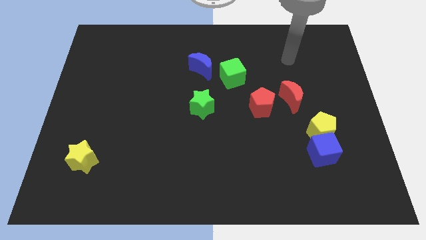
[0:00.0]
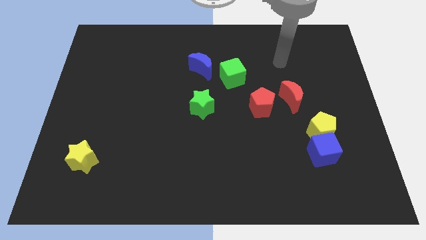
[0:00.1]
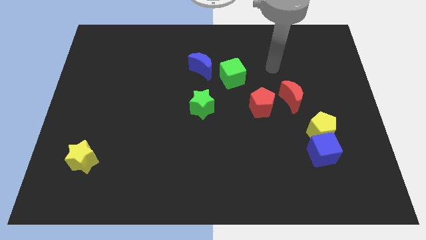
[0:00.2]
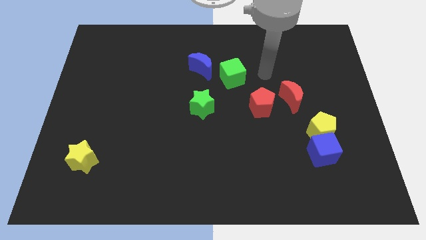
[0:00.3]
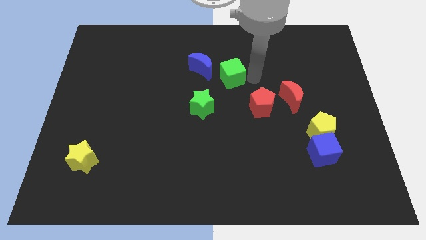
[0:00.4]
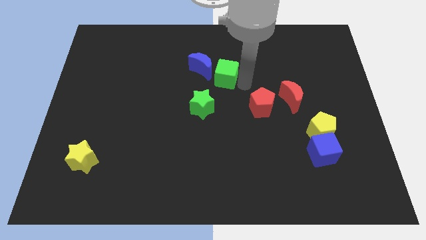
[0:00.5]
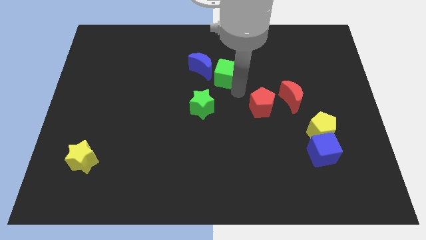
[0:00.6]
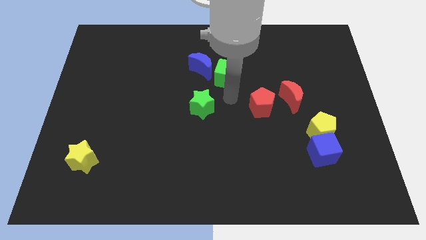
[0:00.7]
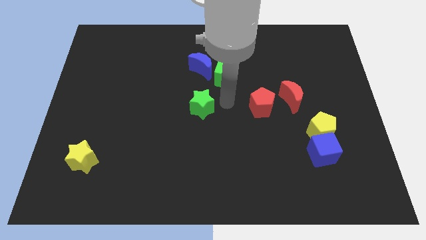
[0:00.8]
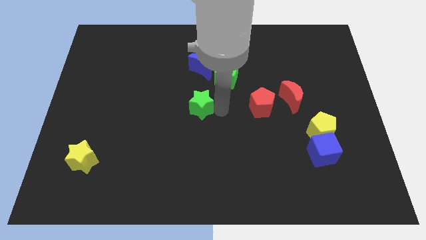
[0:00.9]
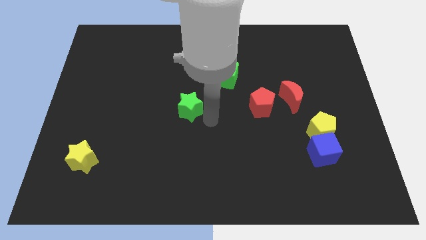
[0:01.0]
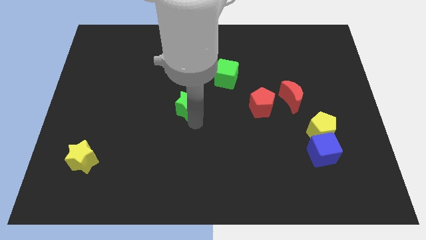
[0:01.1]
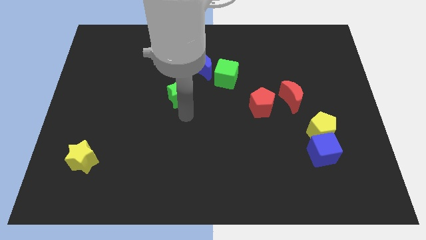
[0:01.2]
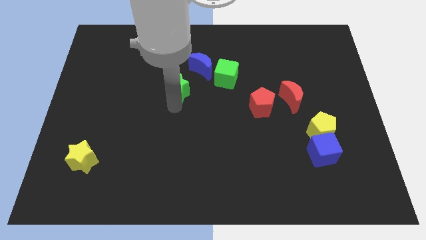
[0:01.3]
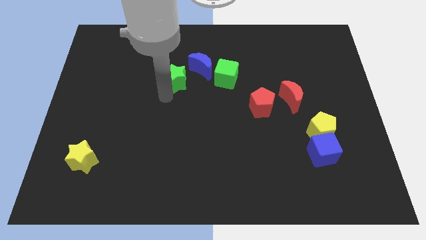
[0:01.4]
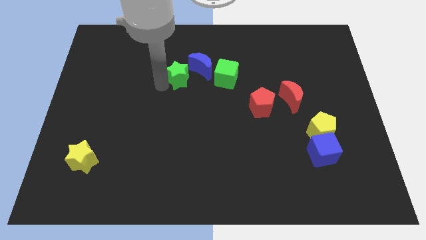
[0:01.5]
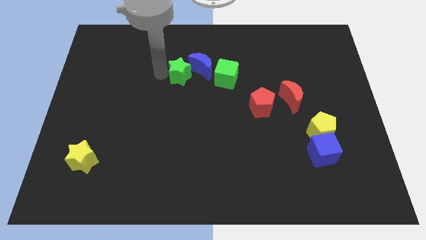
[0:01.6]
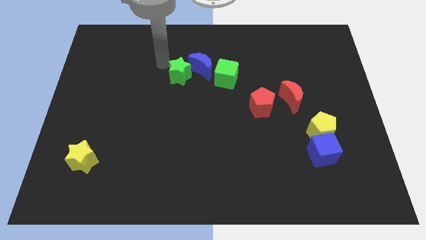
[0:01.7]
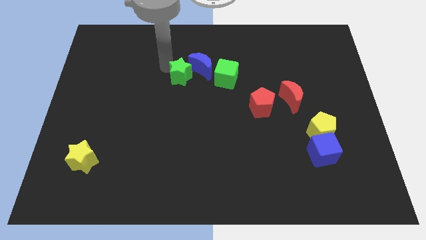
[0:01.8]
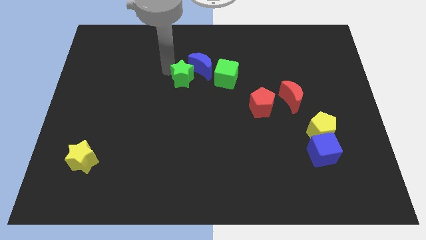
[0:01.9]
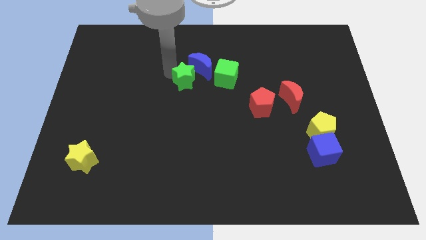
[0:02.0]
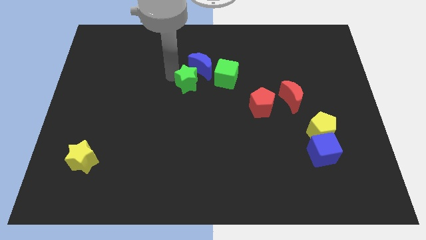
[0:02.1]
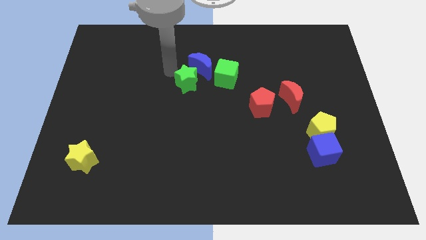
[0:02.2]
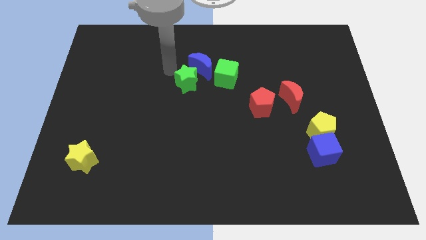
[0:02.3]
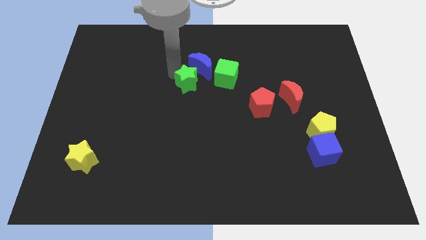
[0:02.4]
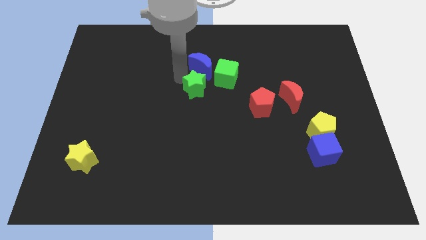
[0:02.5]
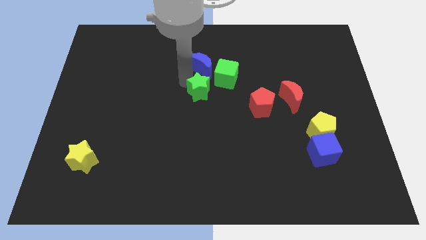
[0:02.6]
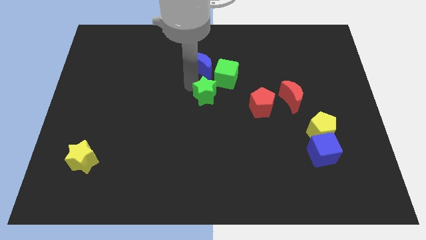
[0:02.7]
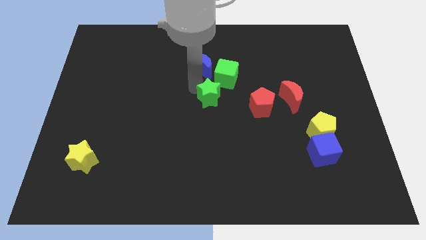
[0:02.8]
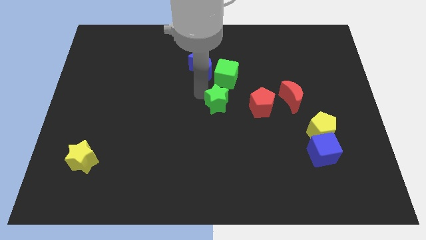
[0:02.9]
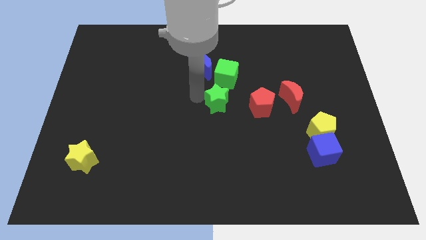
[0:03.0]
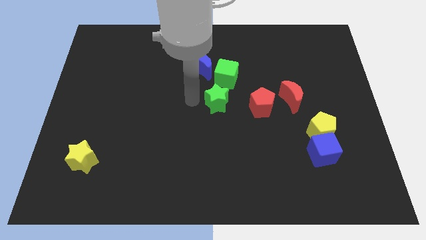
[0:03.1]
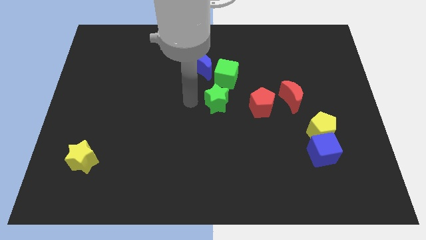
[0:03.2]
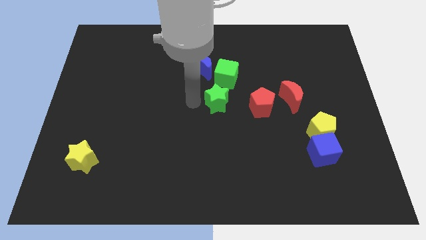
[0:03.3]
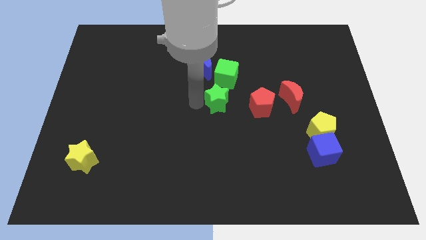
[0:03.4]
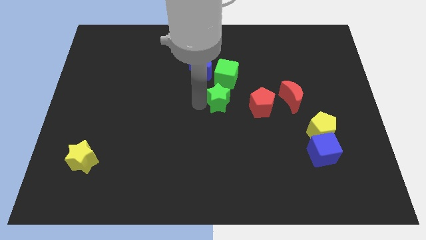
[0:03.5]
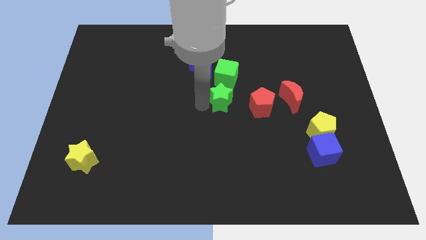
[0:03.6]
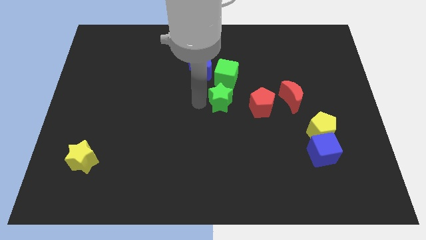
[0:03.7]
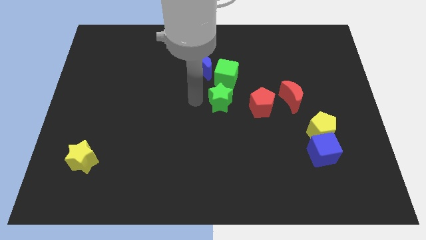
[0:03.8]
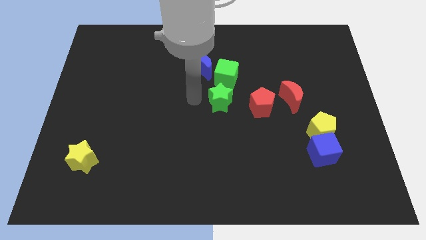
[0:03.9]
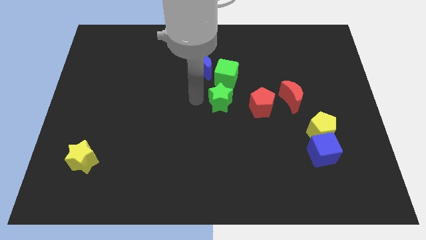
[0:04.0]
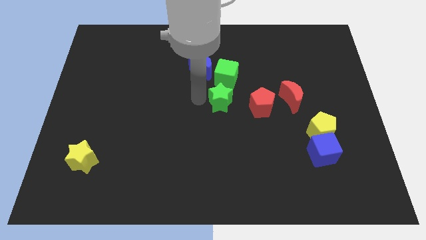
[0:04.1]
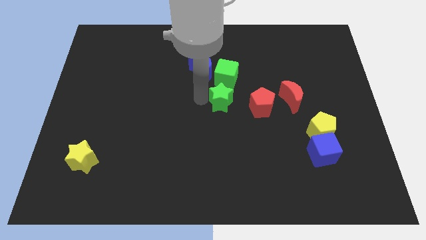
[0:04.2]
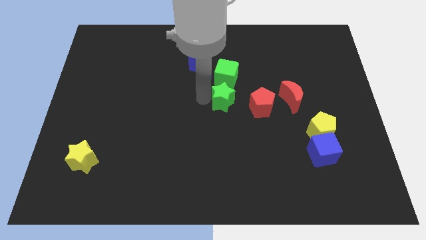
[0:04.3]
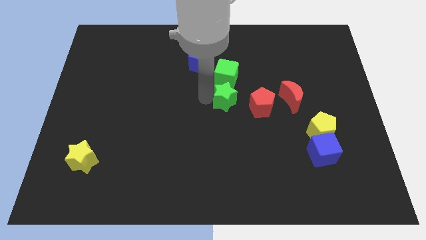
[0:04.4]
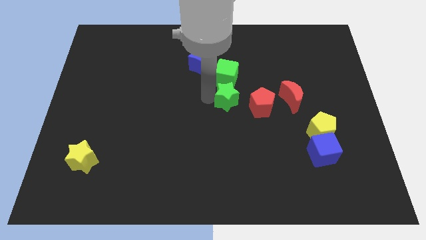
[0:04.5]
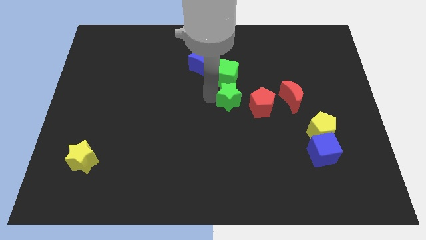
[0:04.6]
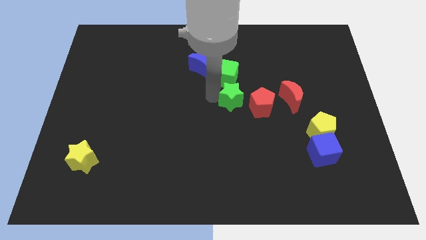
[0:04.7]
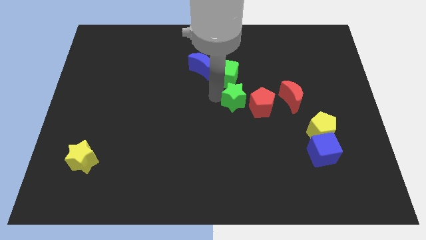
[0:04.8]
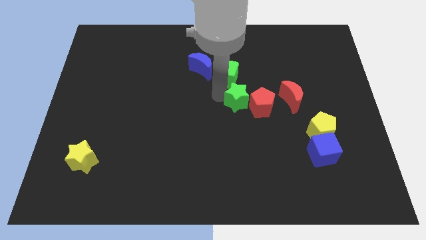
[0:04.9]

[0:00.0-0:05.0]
move the green star next to the red pentagon

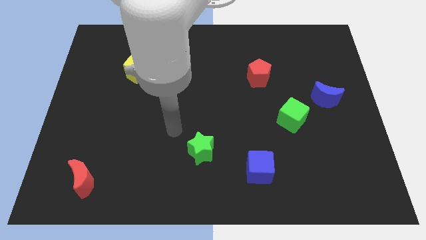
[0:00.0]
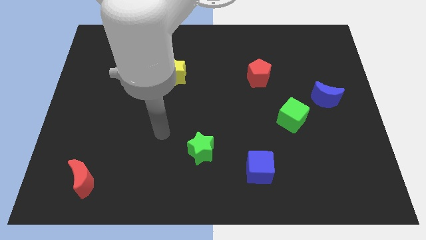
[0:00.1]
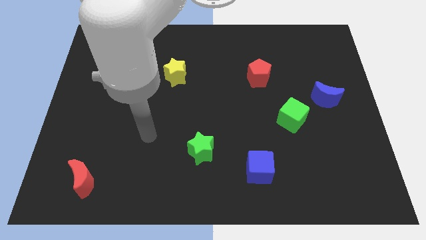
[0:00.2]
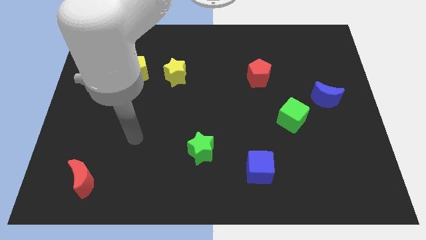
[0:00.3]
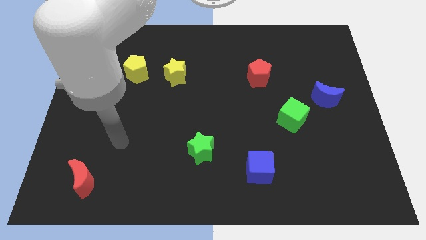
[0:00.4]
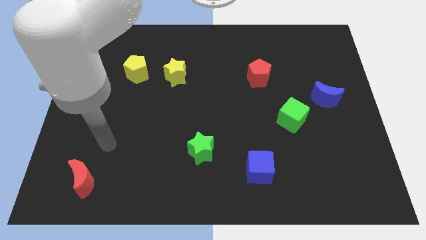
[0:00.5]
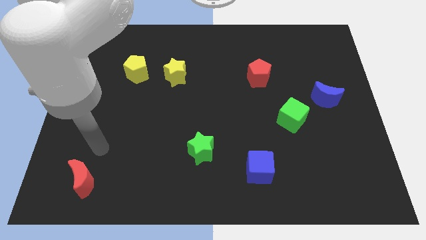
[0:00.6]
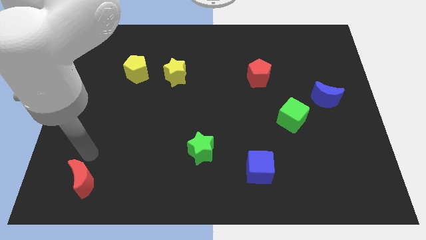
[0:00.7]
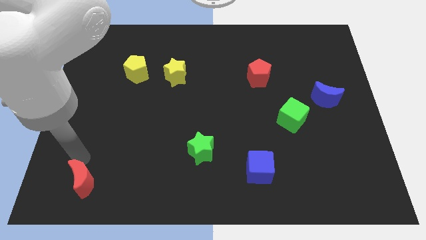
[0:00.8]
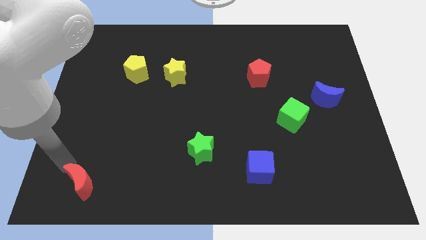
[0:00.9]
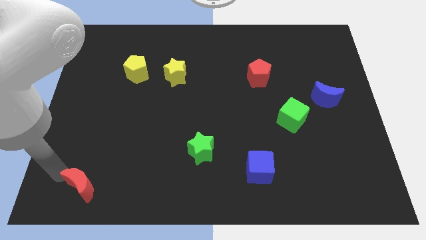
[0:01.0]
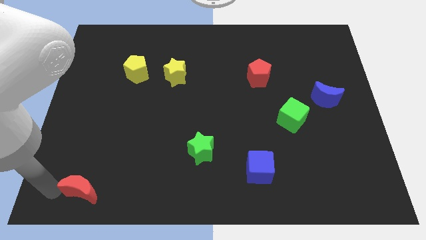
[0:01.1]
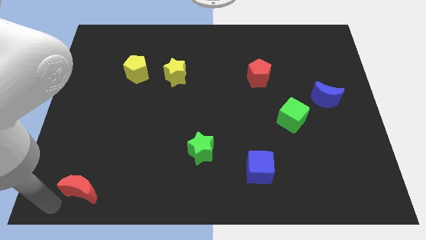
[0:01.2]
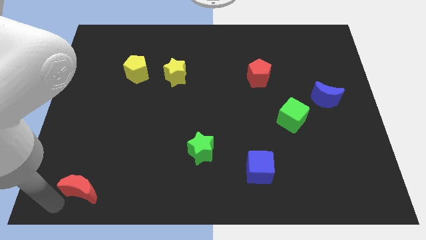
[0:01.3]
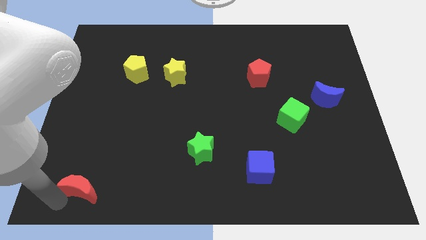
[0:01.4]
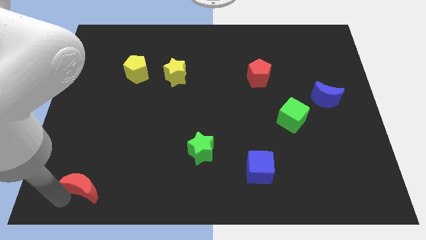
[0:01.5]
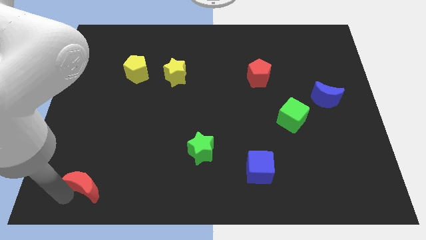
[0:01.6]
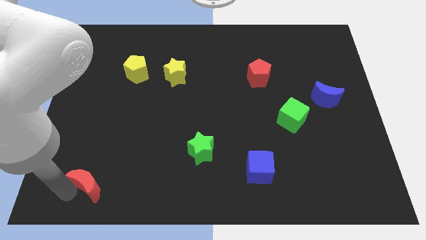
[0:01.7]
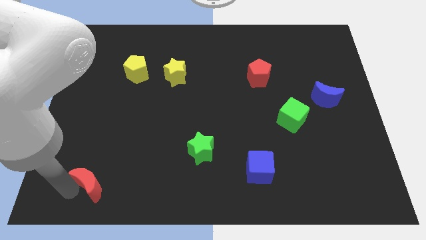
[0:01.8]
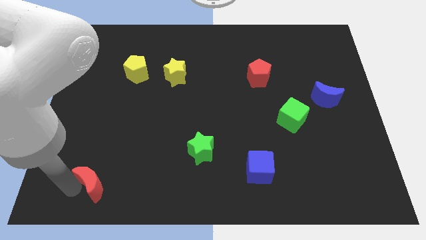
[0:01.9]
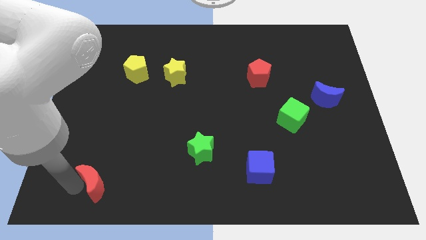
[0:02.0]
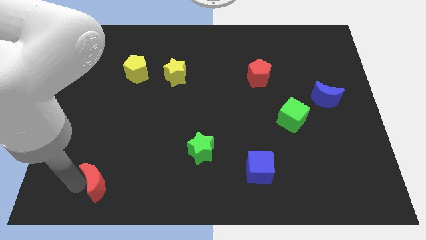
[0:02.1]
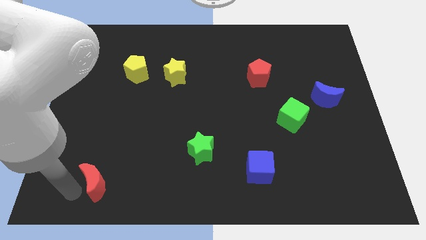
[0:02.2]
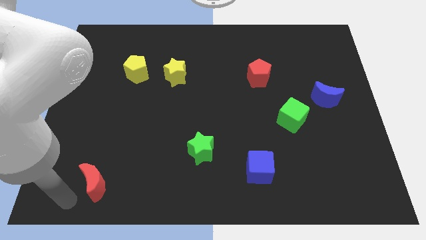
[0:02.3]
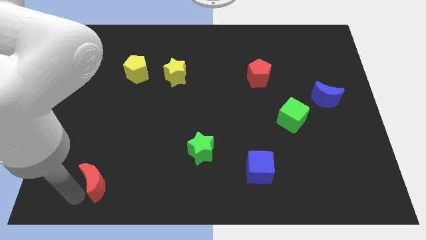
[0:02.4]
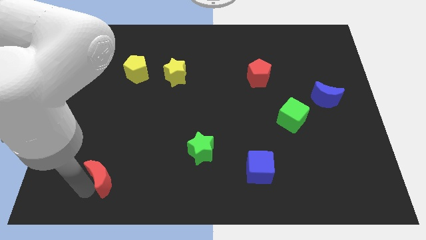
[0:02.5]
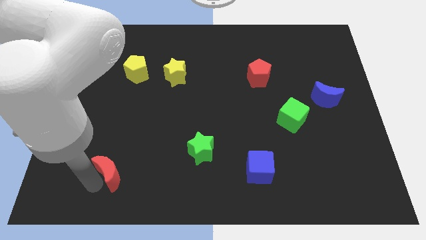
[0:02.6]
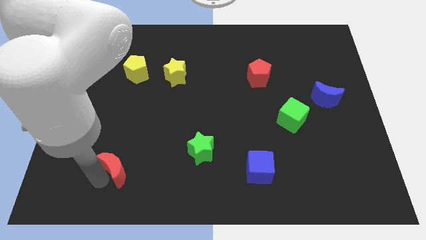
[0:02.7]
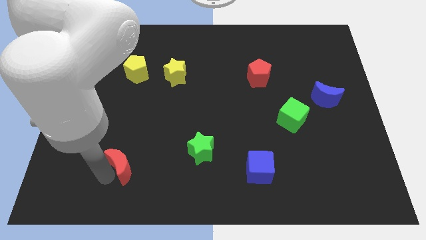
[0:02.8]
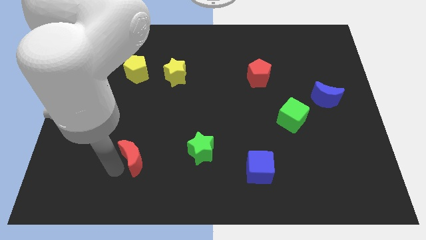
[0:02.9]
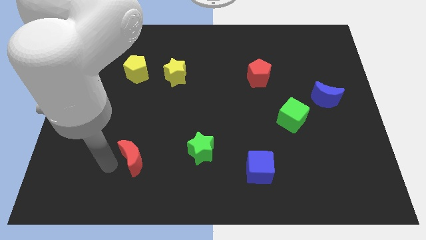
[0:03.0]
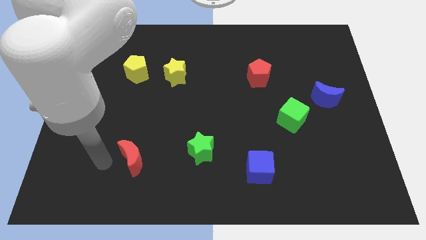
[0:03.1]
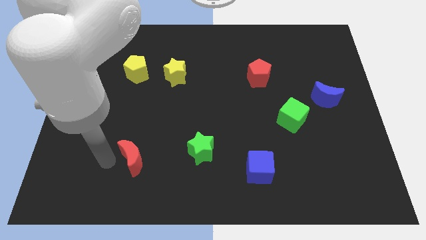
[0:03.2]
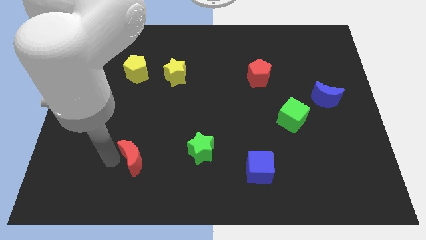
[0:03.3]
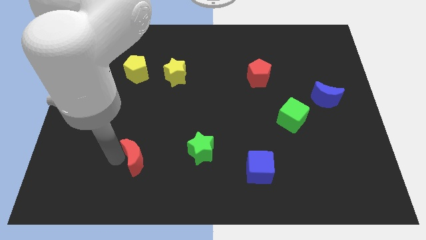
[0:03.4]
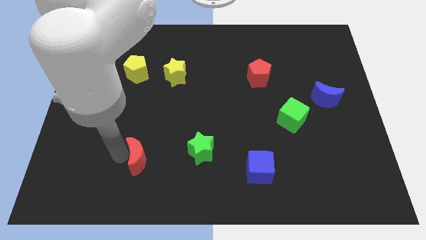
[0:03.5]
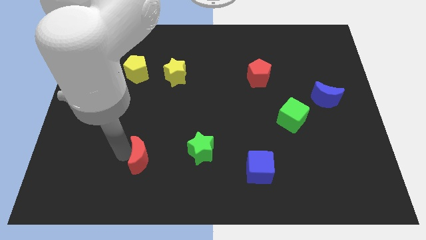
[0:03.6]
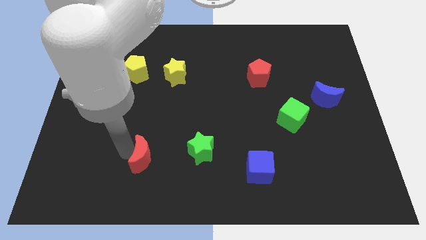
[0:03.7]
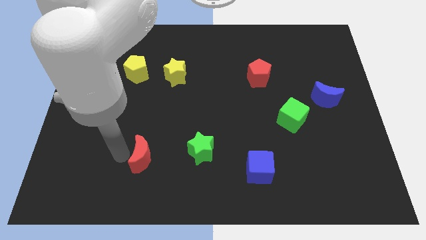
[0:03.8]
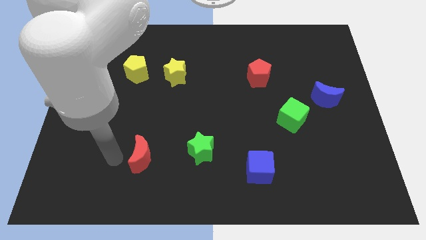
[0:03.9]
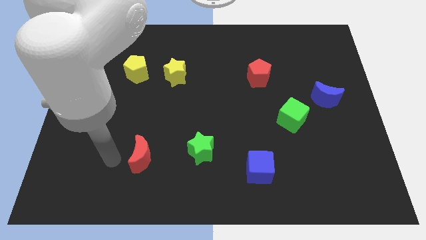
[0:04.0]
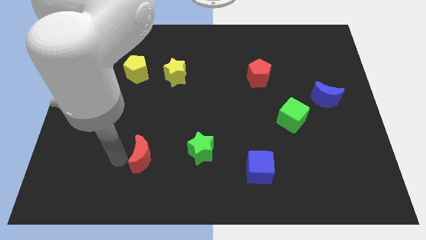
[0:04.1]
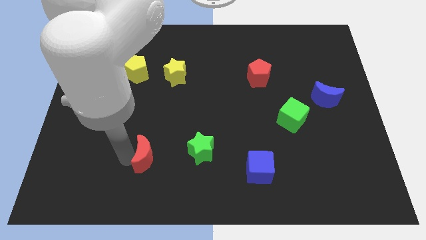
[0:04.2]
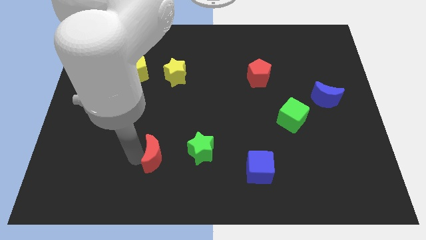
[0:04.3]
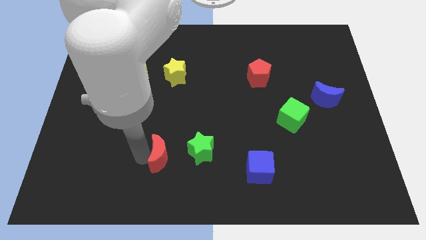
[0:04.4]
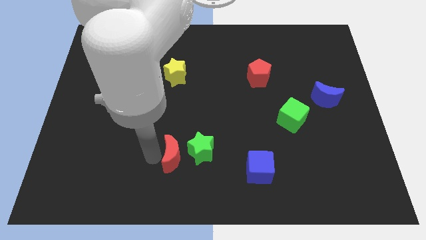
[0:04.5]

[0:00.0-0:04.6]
move the red moon close to the green star
